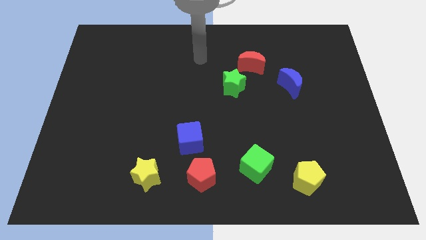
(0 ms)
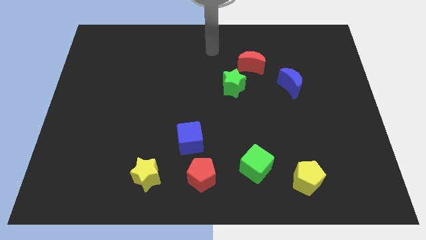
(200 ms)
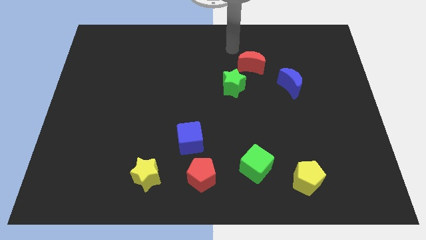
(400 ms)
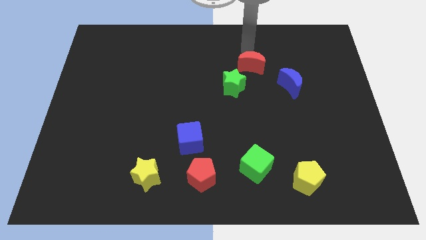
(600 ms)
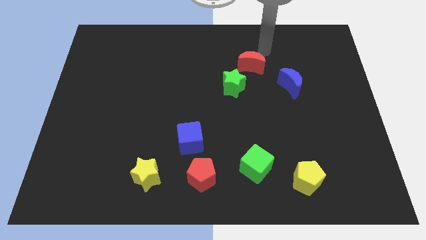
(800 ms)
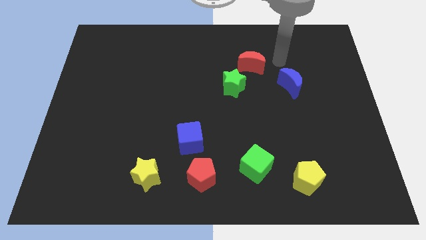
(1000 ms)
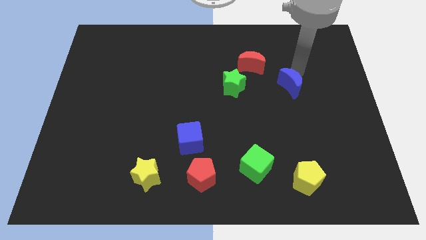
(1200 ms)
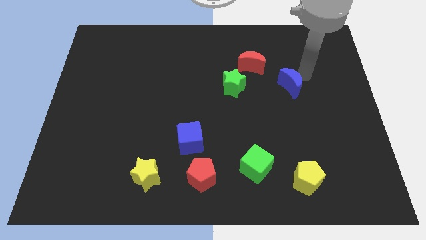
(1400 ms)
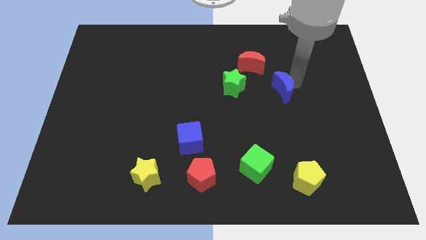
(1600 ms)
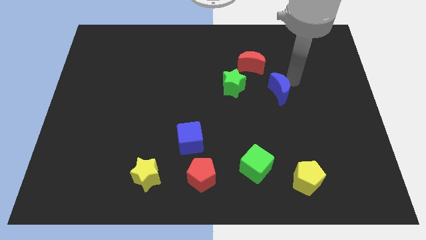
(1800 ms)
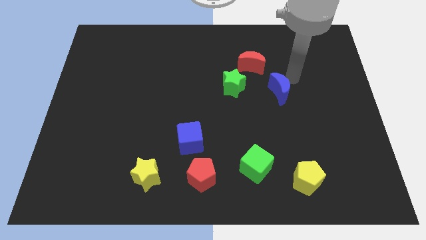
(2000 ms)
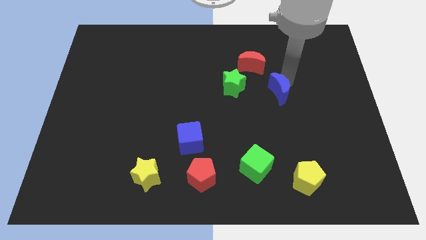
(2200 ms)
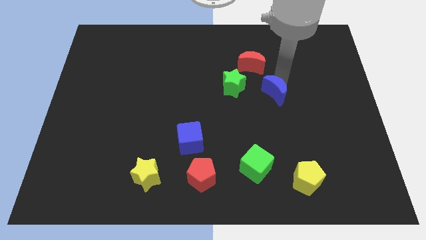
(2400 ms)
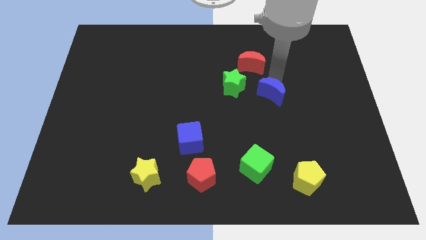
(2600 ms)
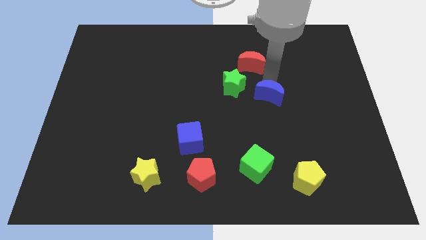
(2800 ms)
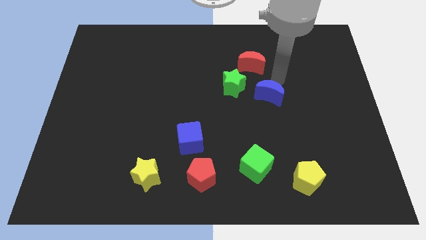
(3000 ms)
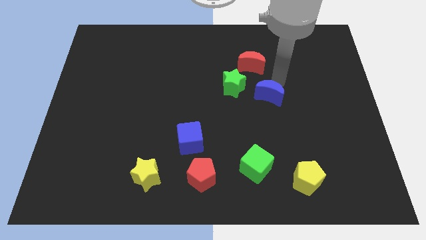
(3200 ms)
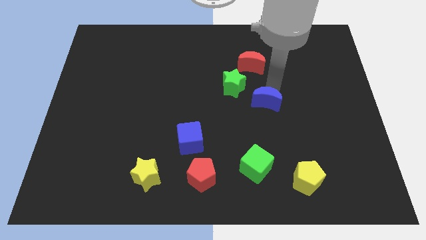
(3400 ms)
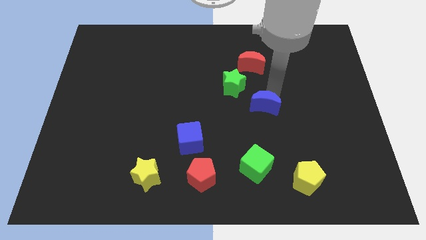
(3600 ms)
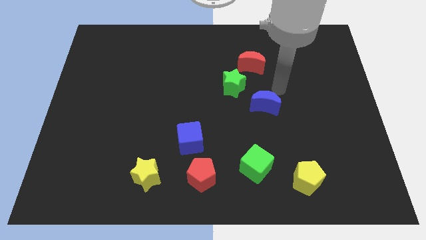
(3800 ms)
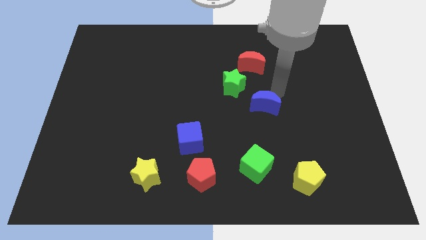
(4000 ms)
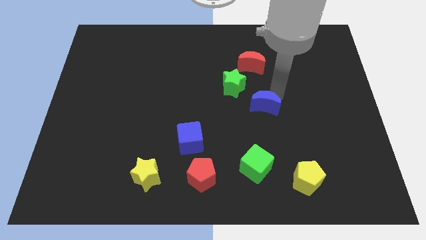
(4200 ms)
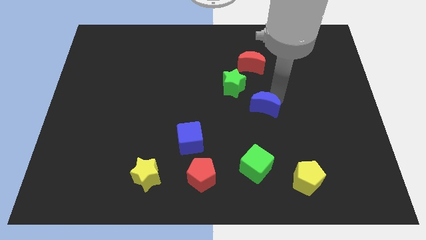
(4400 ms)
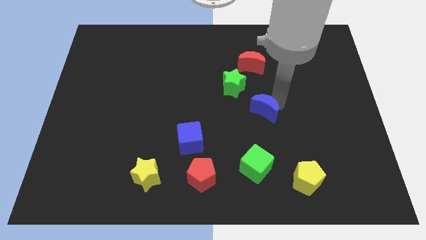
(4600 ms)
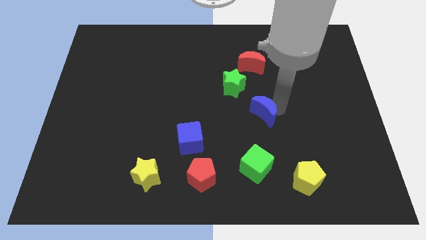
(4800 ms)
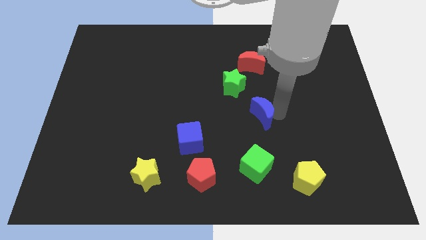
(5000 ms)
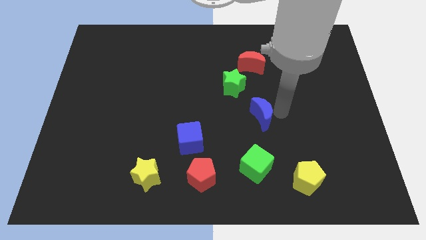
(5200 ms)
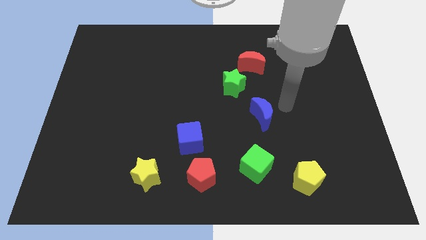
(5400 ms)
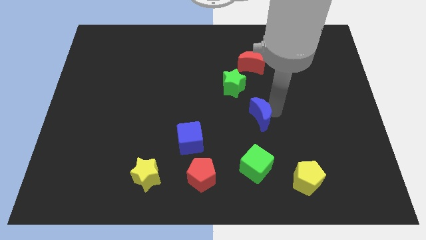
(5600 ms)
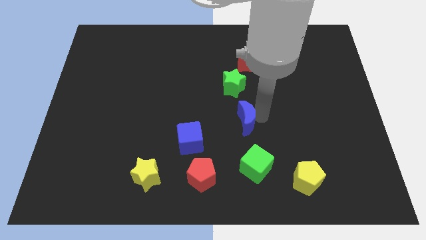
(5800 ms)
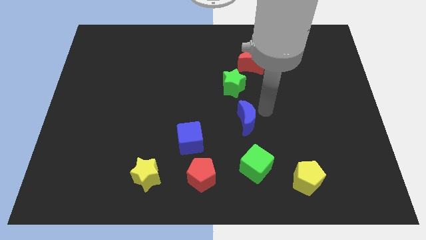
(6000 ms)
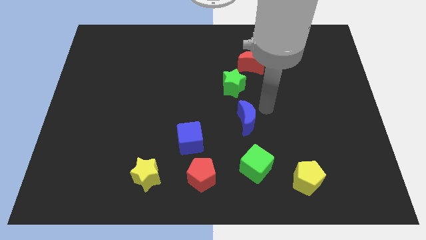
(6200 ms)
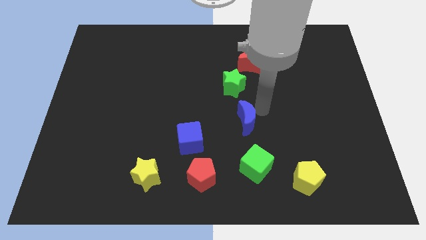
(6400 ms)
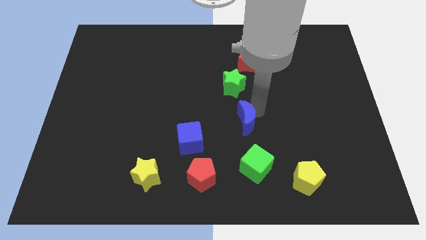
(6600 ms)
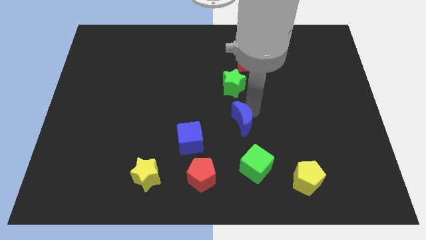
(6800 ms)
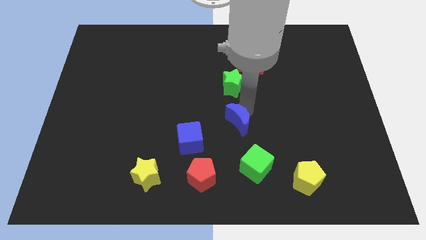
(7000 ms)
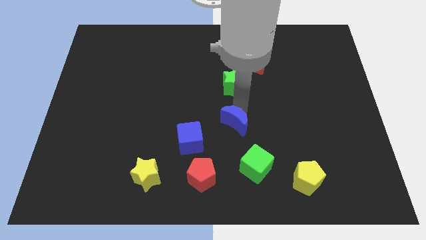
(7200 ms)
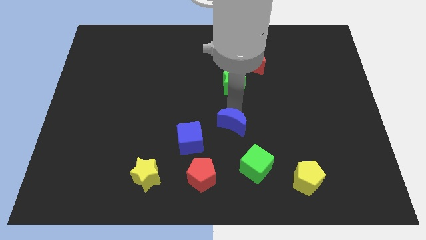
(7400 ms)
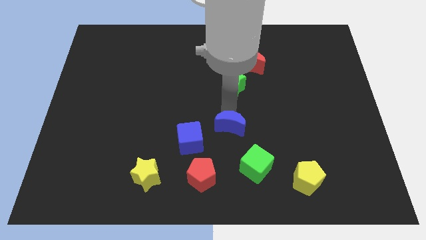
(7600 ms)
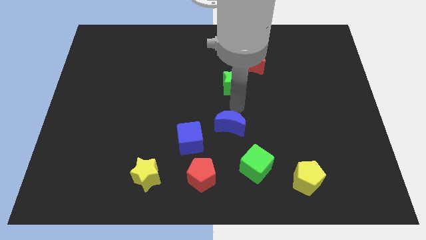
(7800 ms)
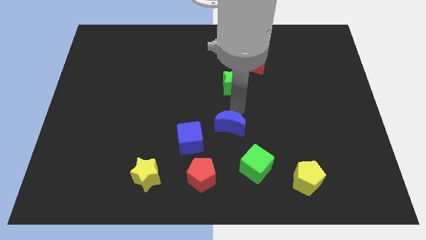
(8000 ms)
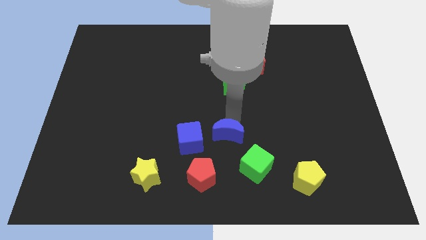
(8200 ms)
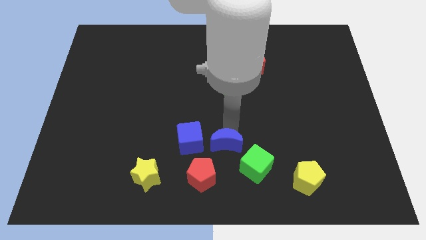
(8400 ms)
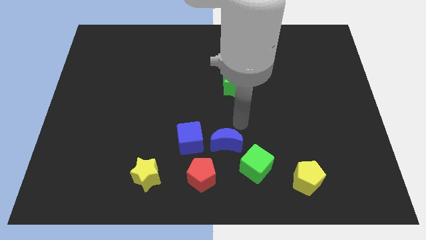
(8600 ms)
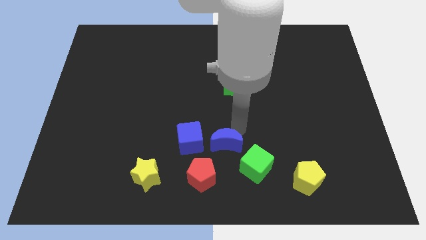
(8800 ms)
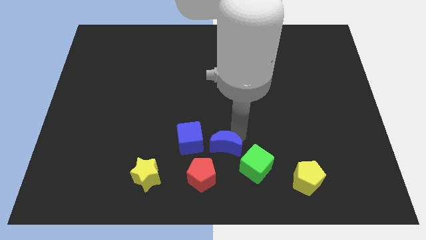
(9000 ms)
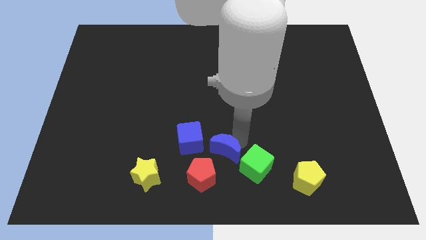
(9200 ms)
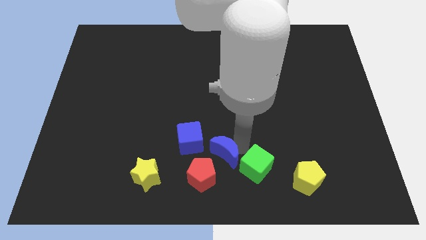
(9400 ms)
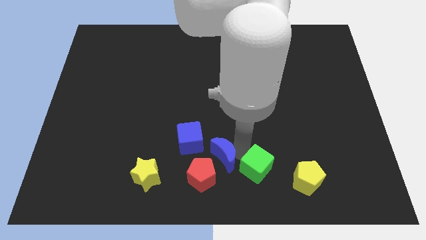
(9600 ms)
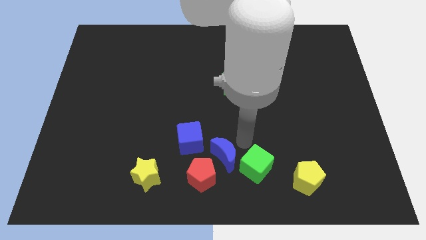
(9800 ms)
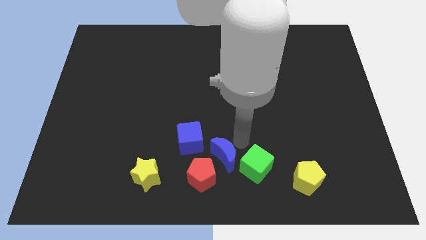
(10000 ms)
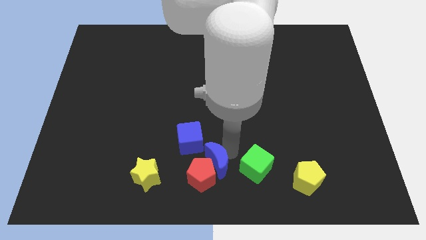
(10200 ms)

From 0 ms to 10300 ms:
put the blue moon next to the red pentagon

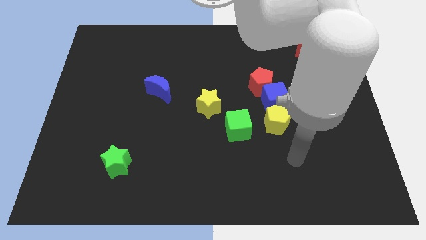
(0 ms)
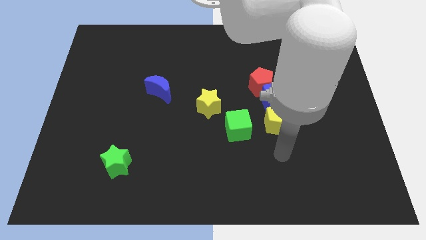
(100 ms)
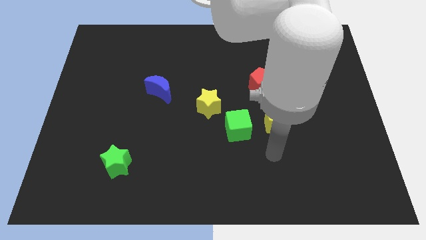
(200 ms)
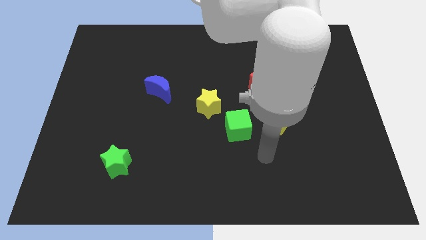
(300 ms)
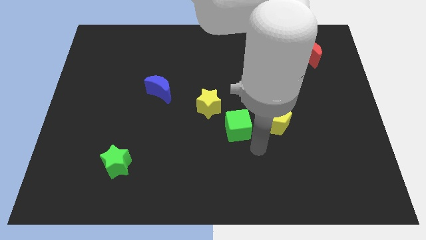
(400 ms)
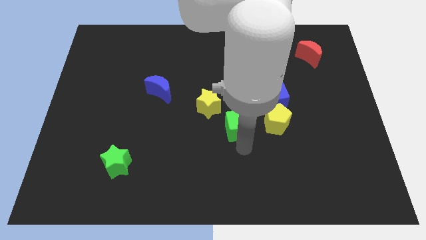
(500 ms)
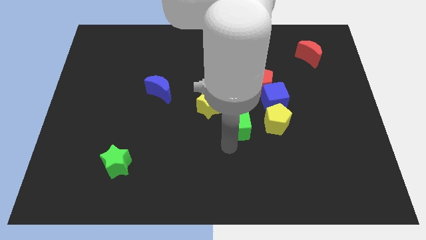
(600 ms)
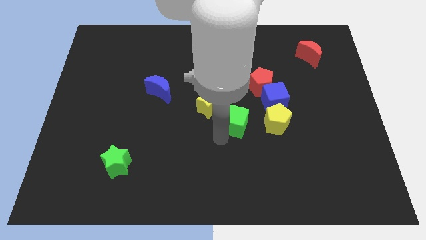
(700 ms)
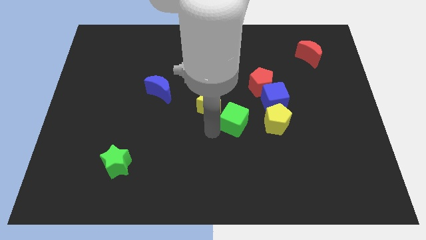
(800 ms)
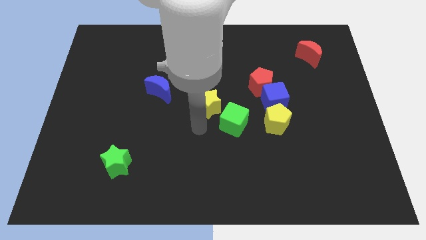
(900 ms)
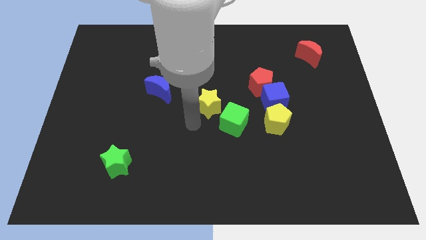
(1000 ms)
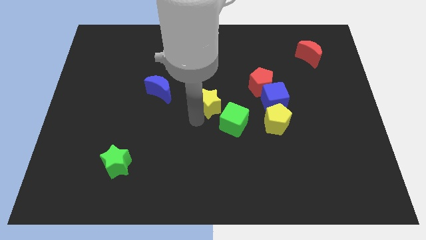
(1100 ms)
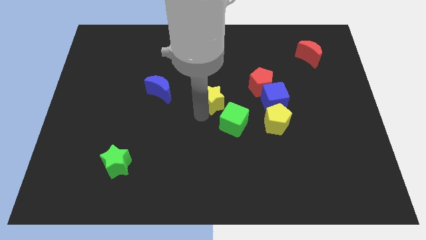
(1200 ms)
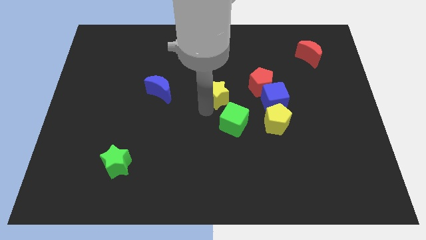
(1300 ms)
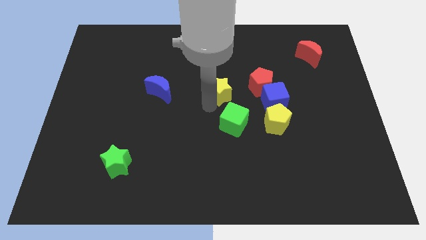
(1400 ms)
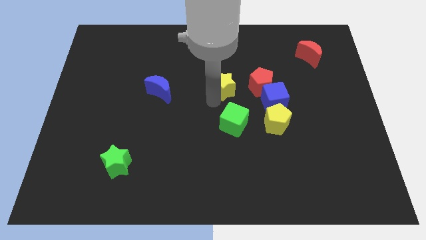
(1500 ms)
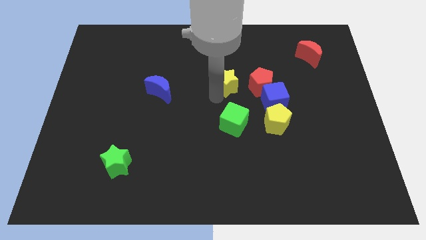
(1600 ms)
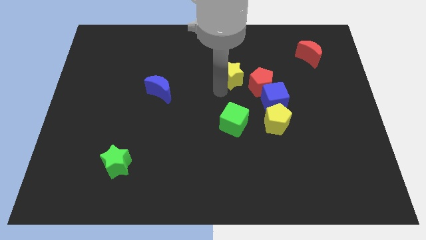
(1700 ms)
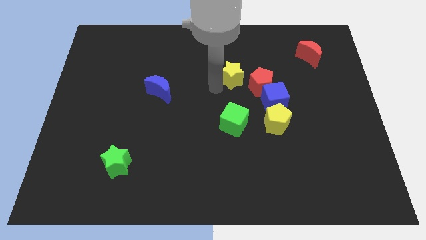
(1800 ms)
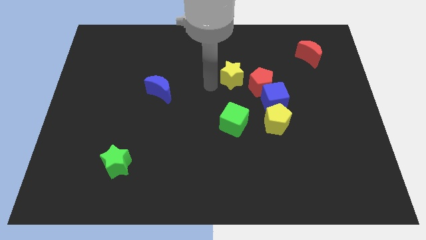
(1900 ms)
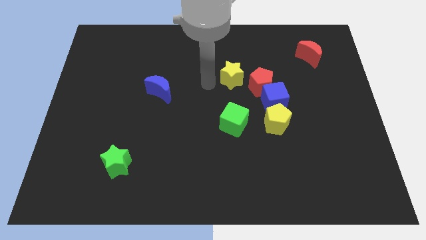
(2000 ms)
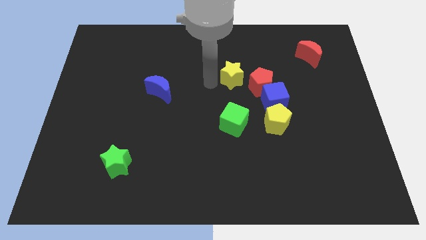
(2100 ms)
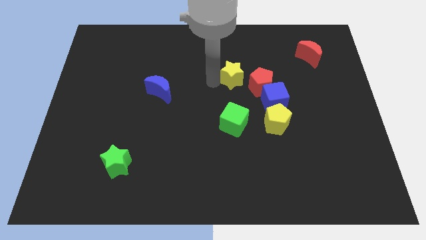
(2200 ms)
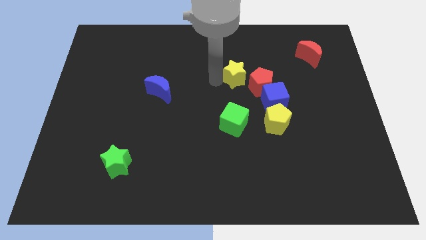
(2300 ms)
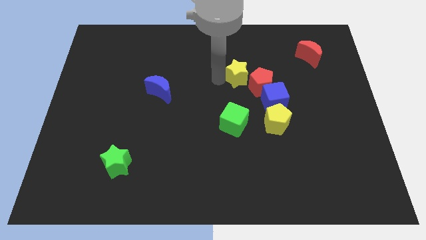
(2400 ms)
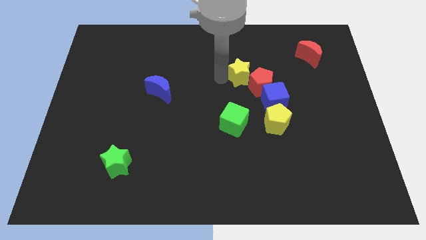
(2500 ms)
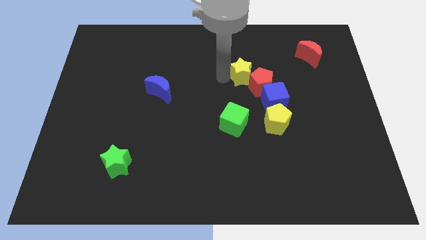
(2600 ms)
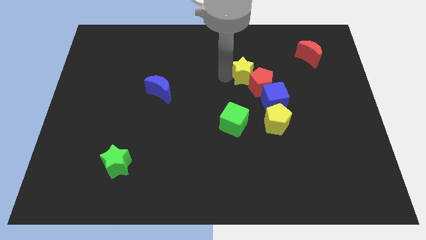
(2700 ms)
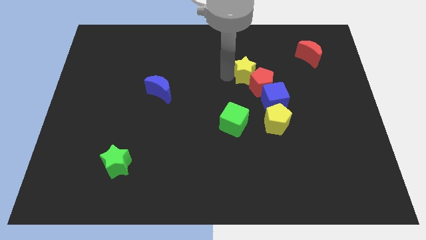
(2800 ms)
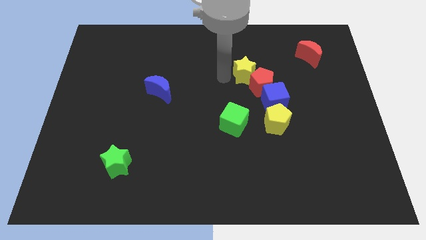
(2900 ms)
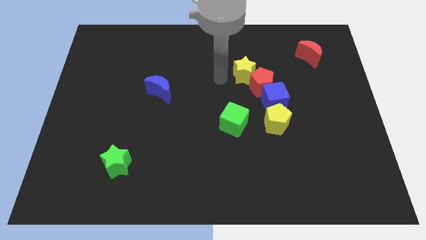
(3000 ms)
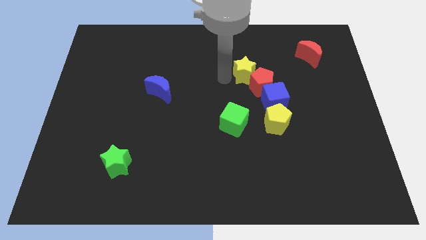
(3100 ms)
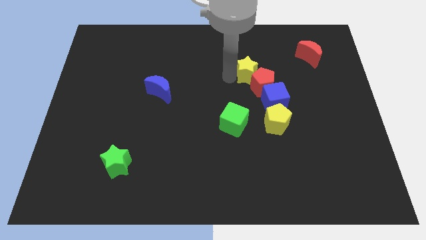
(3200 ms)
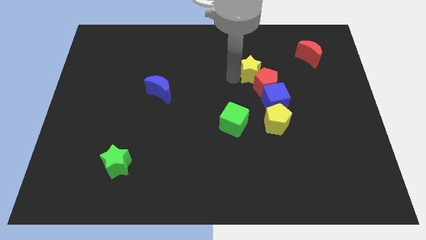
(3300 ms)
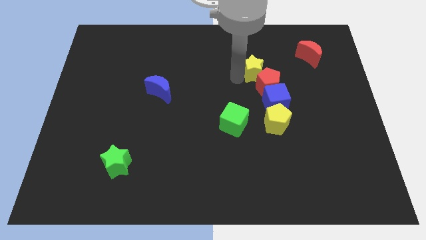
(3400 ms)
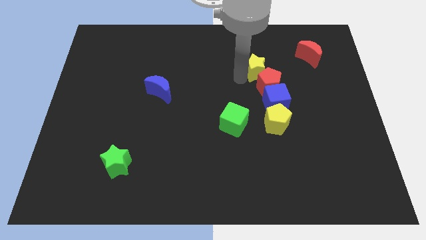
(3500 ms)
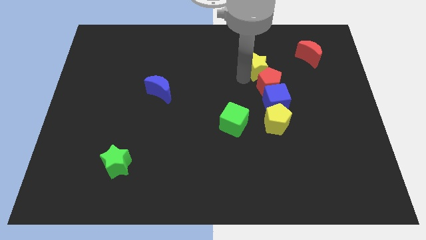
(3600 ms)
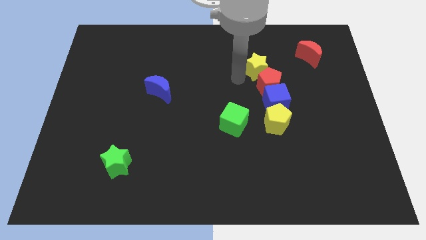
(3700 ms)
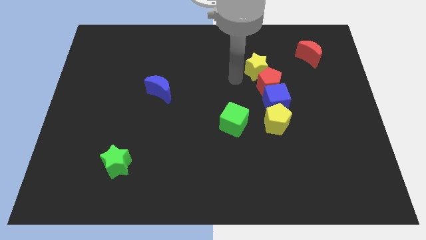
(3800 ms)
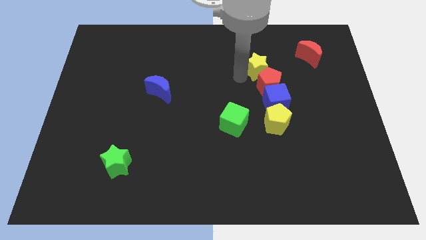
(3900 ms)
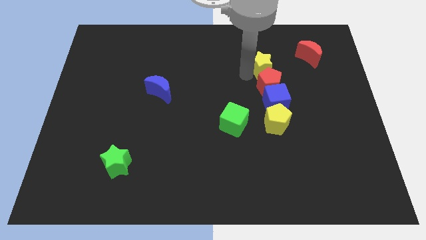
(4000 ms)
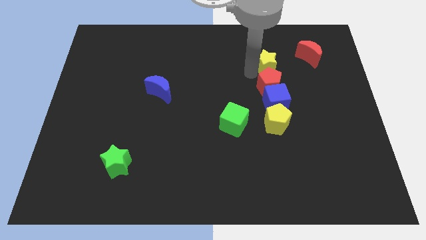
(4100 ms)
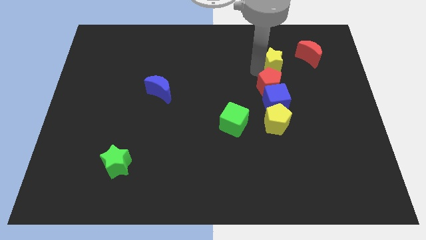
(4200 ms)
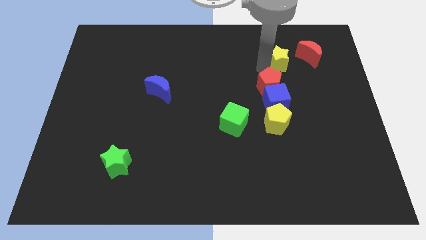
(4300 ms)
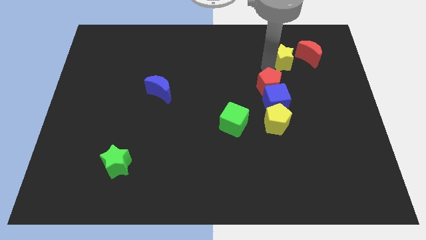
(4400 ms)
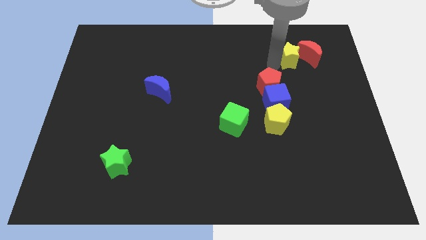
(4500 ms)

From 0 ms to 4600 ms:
put the yellow star towards the red moon
